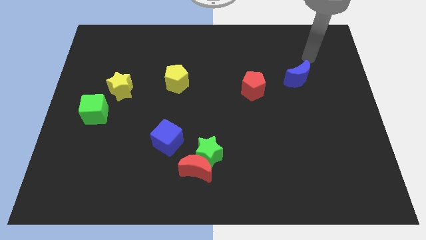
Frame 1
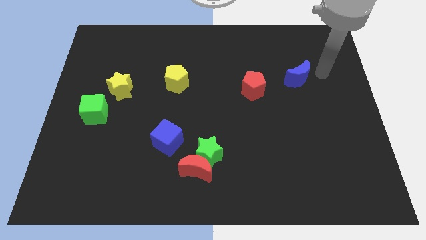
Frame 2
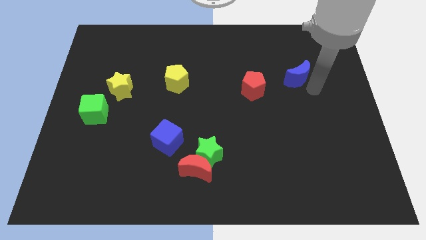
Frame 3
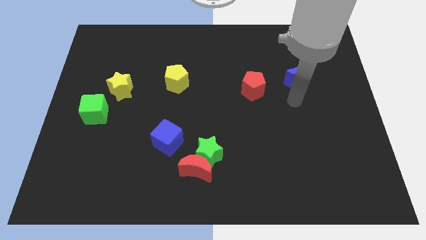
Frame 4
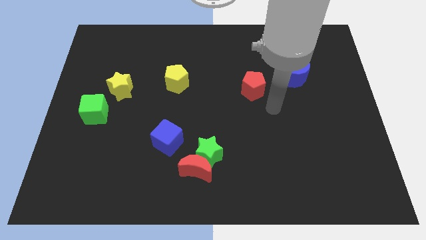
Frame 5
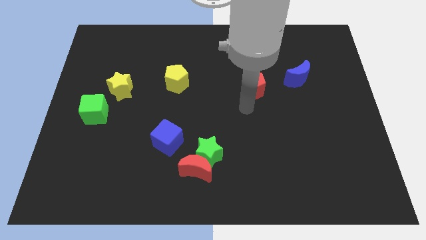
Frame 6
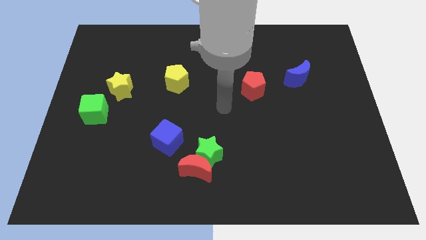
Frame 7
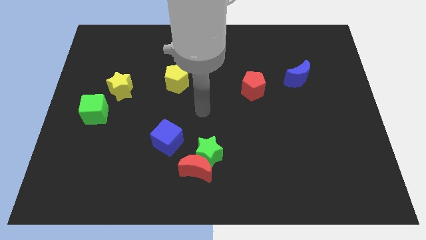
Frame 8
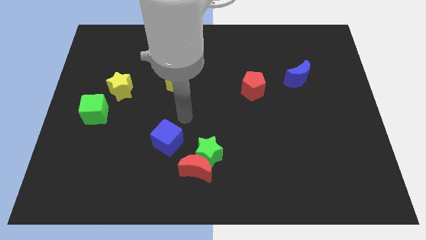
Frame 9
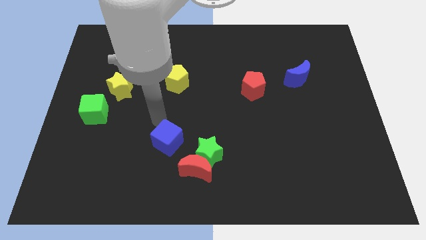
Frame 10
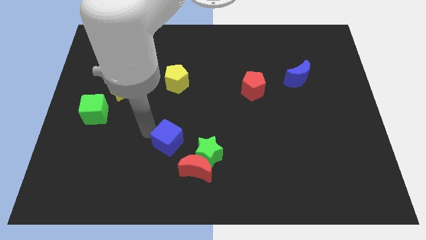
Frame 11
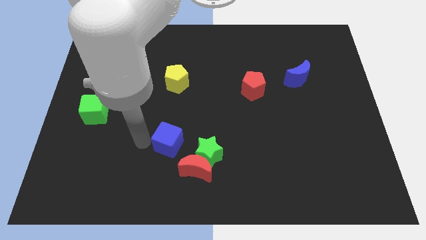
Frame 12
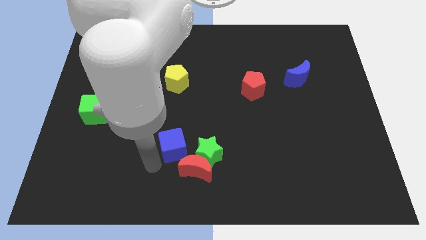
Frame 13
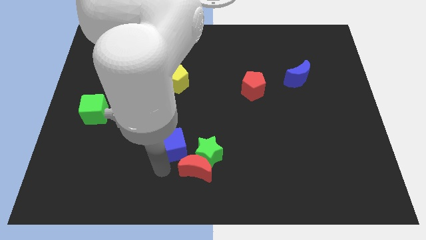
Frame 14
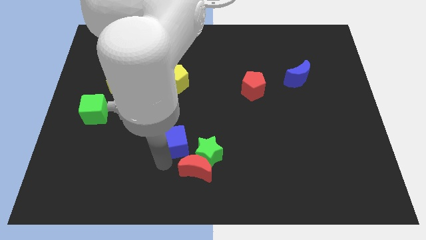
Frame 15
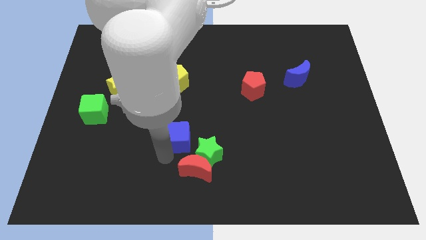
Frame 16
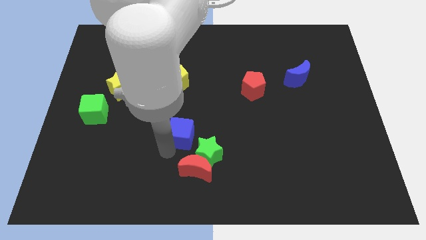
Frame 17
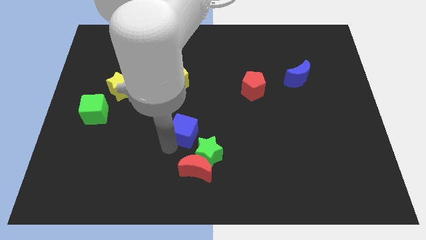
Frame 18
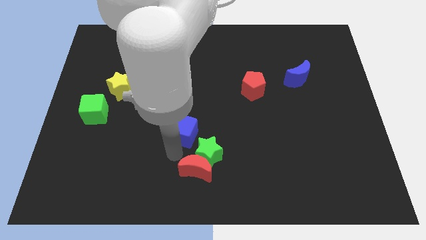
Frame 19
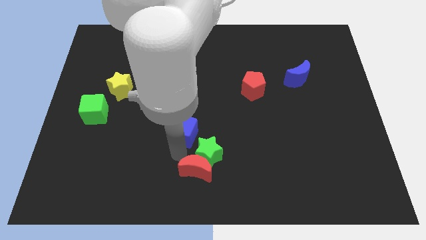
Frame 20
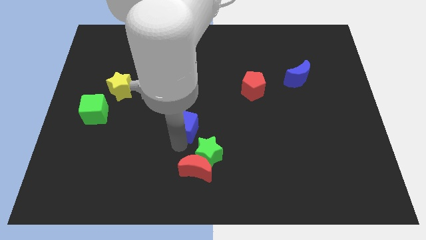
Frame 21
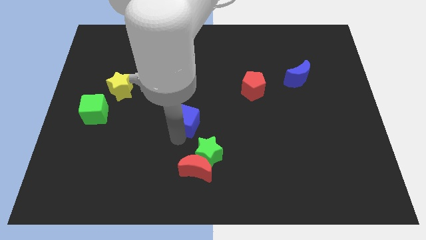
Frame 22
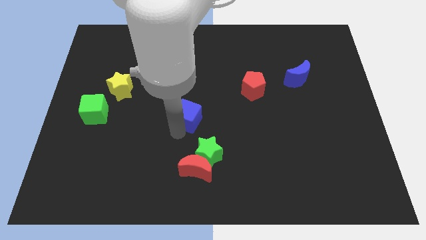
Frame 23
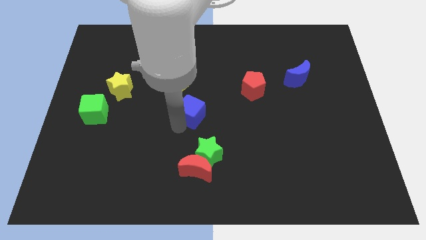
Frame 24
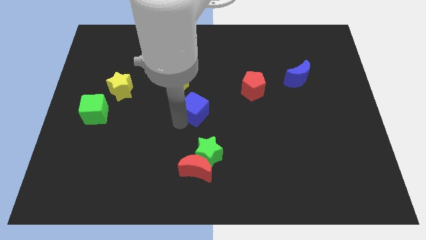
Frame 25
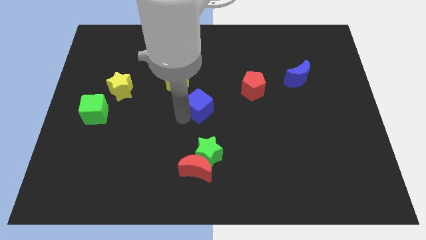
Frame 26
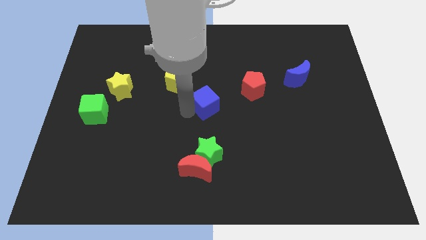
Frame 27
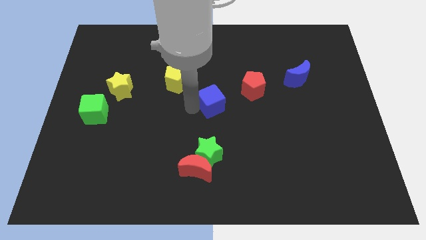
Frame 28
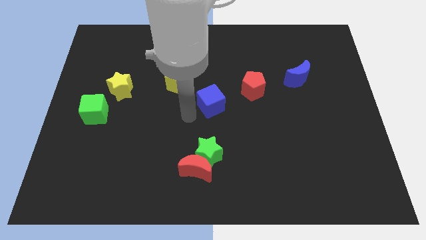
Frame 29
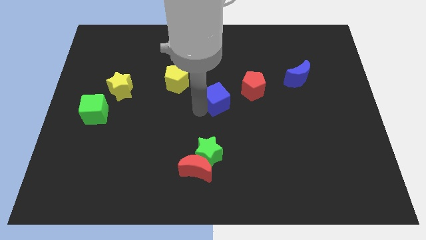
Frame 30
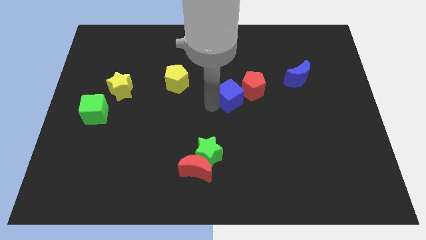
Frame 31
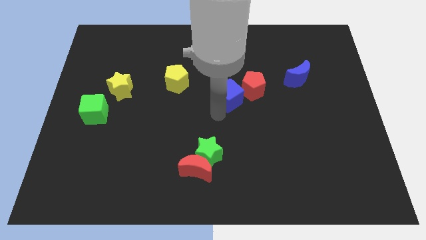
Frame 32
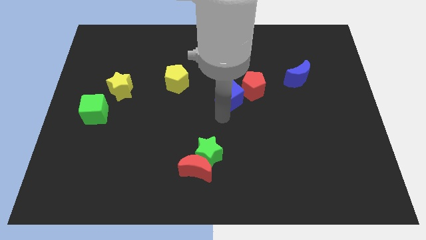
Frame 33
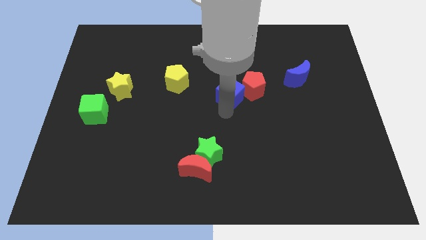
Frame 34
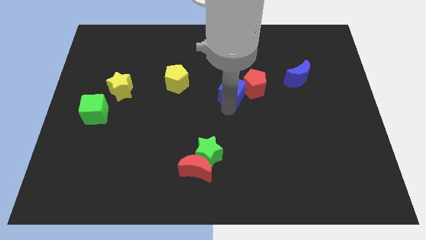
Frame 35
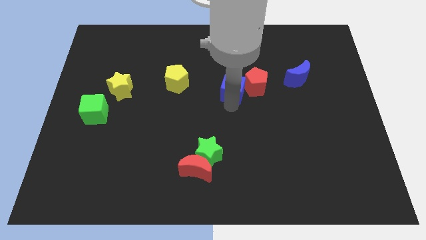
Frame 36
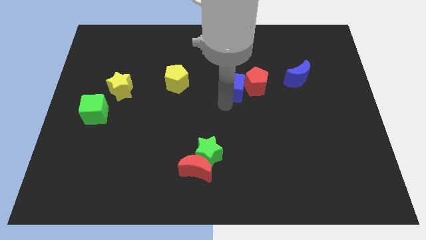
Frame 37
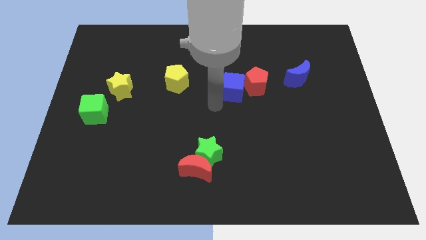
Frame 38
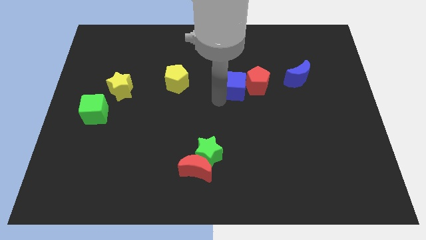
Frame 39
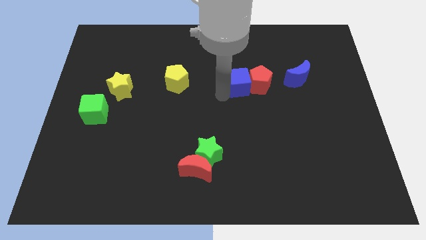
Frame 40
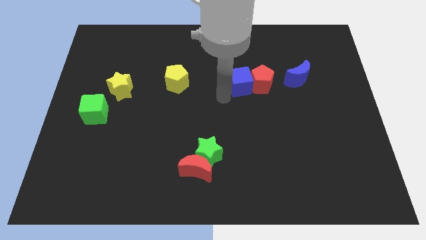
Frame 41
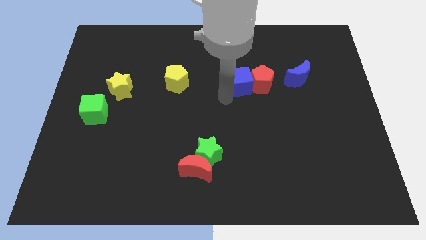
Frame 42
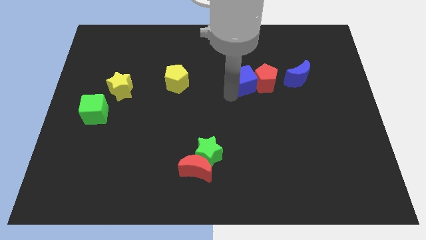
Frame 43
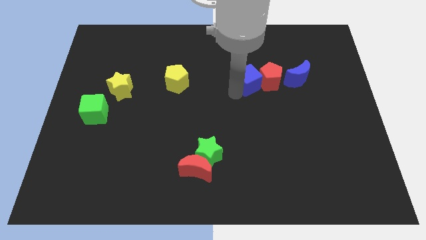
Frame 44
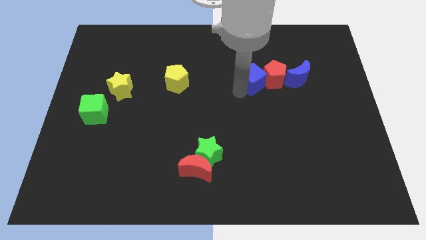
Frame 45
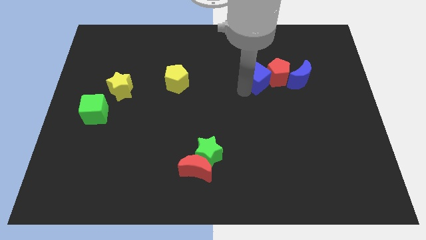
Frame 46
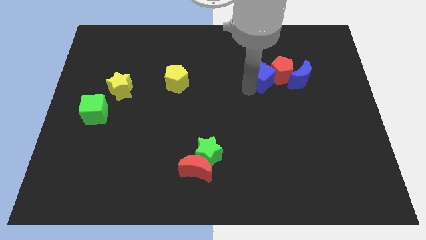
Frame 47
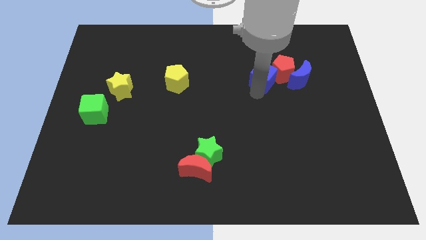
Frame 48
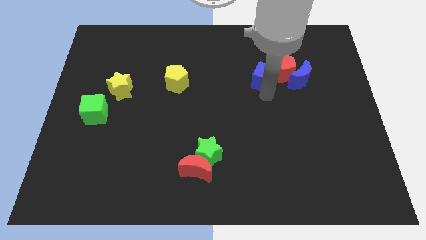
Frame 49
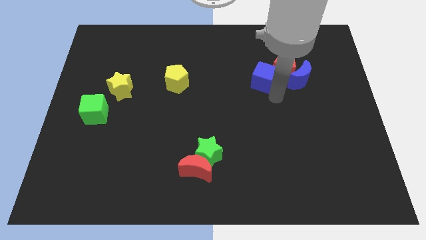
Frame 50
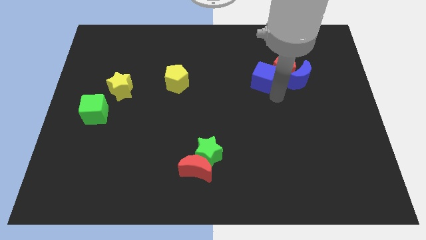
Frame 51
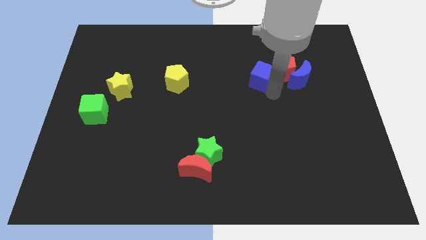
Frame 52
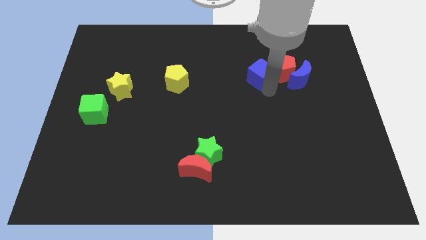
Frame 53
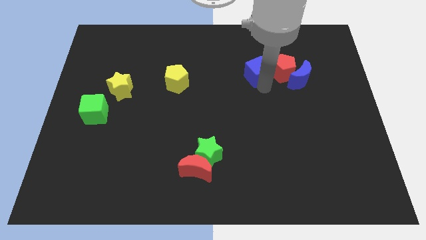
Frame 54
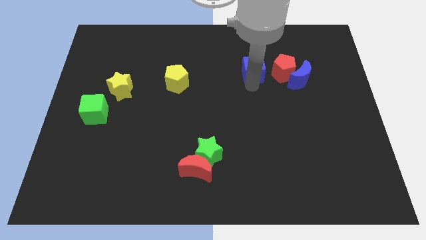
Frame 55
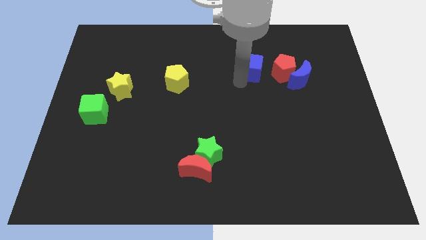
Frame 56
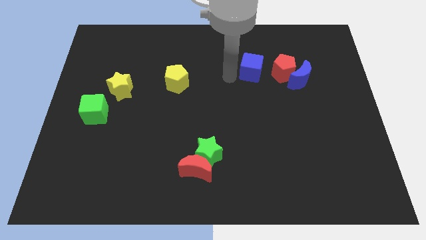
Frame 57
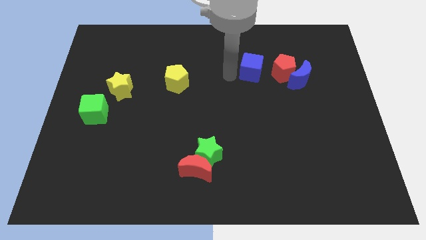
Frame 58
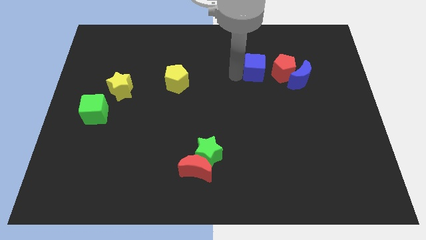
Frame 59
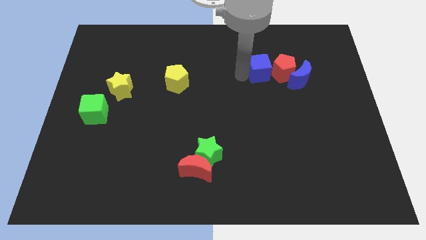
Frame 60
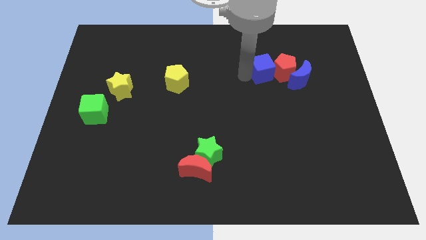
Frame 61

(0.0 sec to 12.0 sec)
slide the blue cube to the top left side of the blue moon

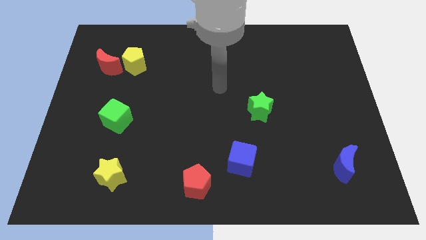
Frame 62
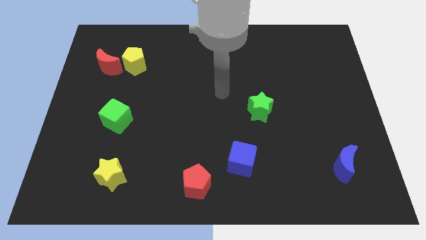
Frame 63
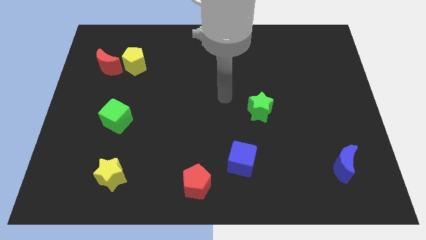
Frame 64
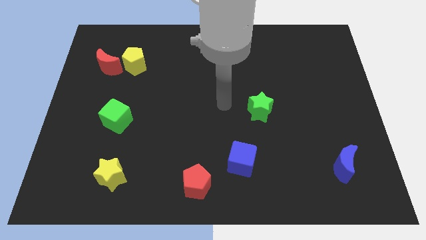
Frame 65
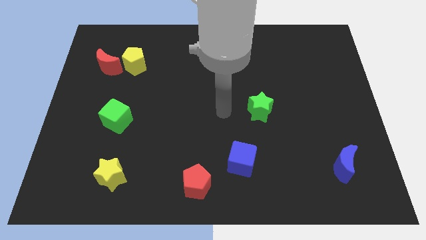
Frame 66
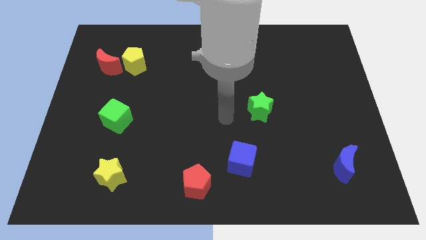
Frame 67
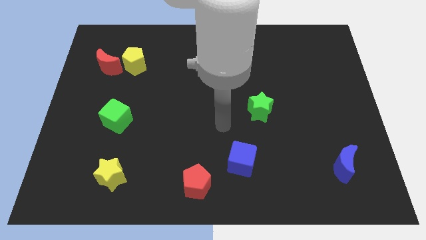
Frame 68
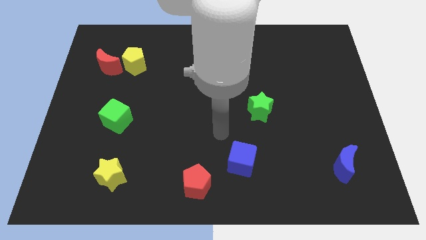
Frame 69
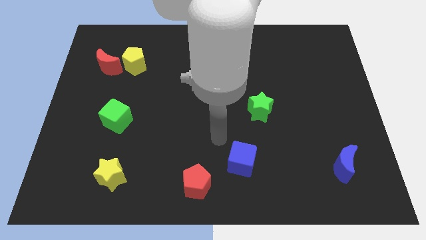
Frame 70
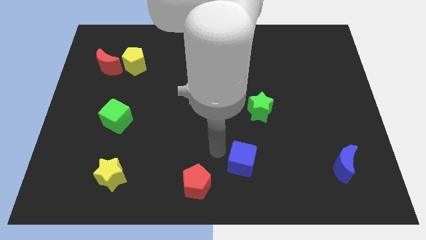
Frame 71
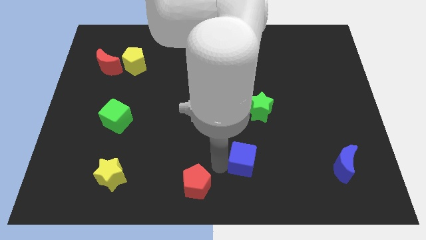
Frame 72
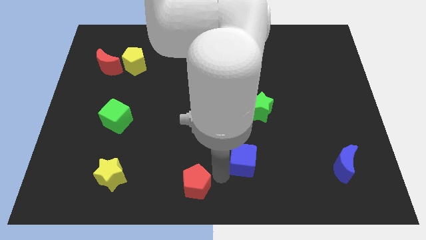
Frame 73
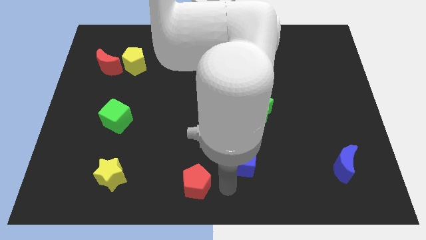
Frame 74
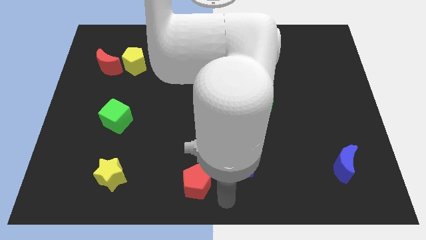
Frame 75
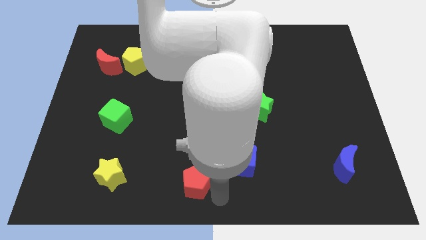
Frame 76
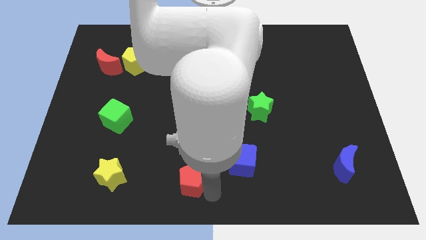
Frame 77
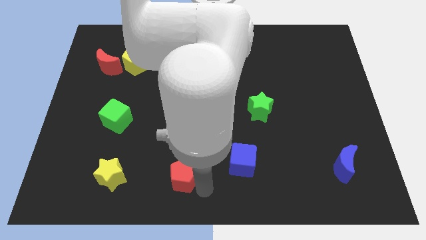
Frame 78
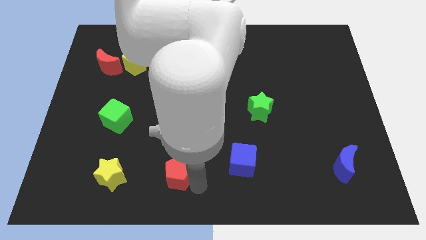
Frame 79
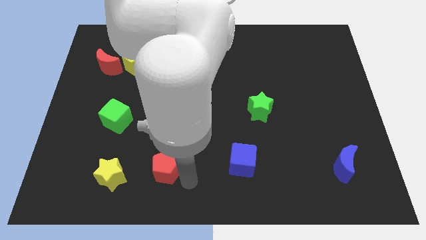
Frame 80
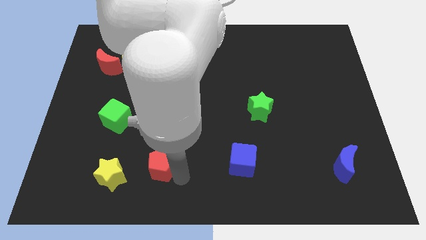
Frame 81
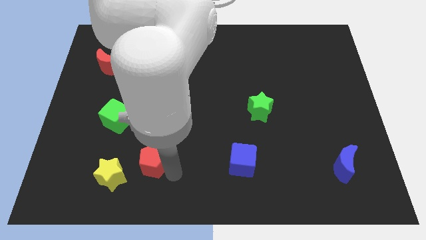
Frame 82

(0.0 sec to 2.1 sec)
slide the red pentagon diagonally up and to the right of the yellow star
